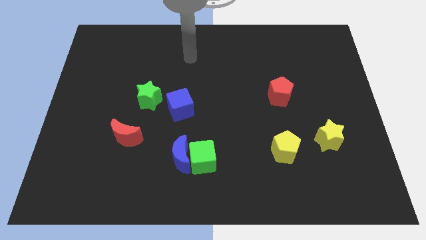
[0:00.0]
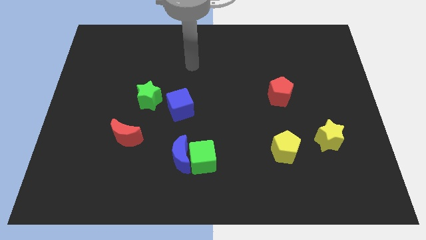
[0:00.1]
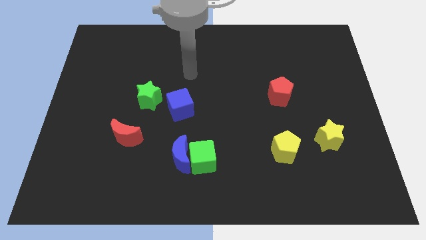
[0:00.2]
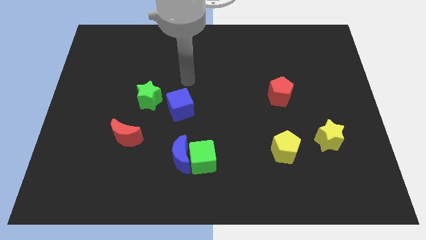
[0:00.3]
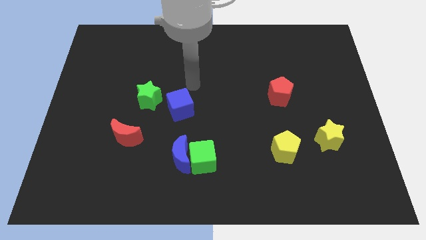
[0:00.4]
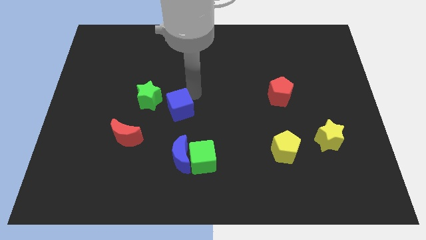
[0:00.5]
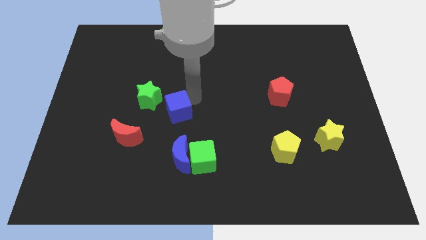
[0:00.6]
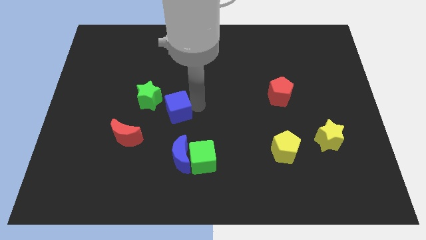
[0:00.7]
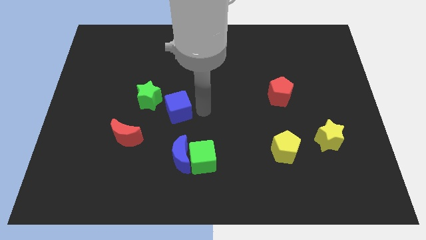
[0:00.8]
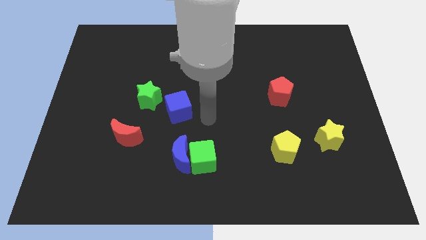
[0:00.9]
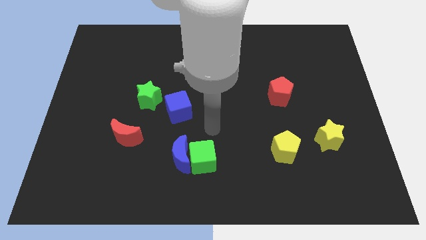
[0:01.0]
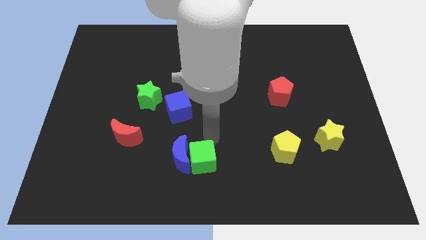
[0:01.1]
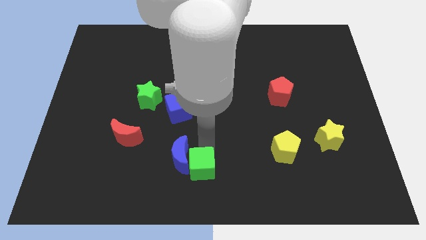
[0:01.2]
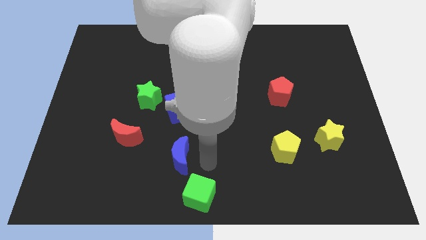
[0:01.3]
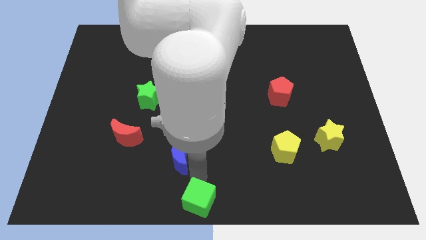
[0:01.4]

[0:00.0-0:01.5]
separate the blue moon from the green cube

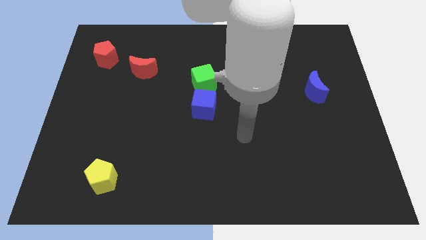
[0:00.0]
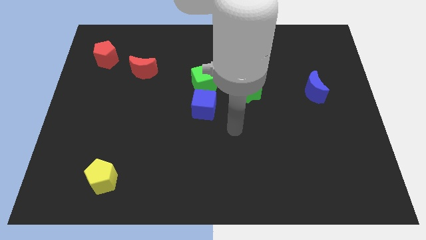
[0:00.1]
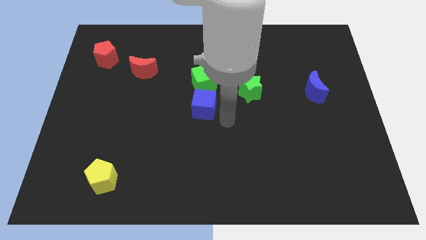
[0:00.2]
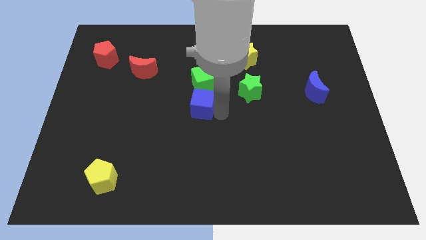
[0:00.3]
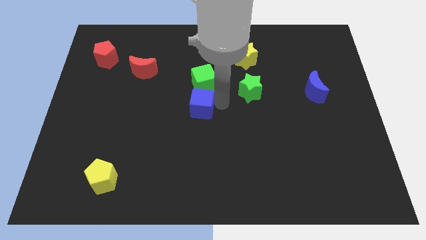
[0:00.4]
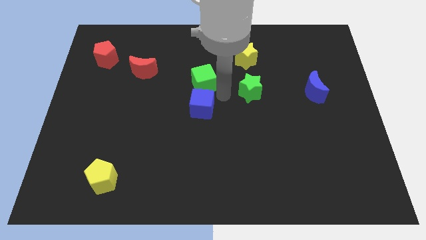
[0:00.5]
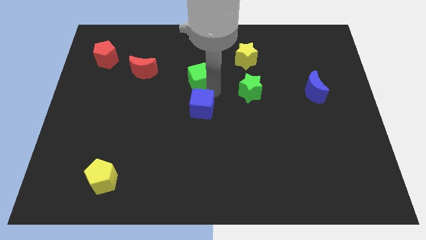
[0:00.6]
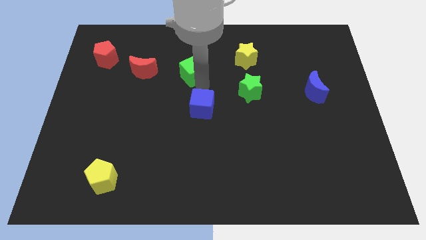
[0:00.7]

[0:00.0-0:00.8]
pull the blue cube apart from the green cube

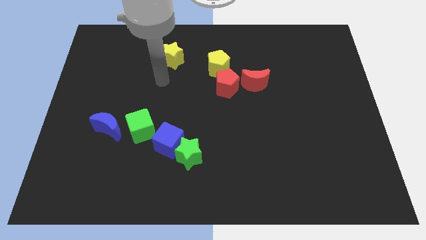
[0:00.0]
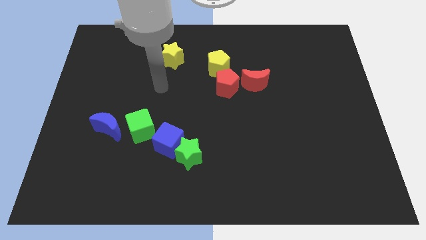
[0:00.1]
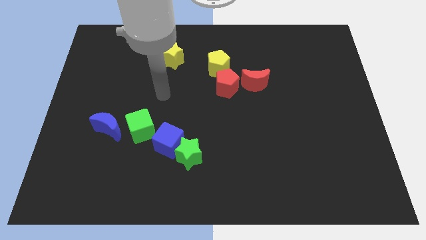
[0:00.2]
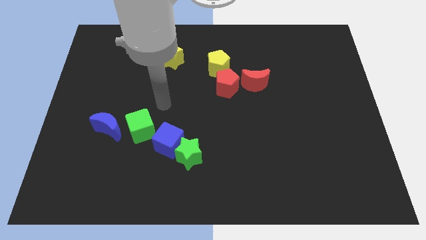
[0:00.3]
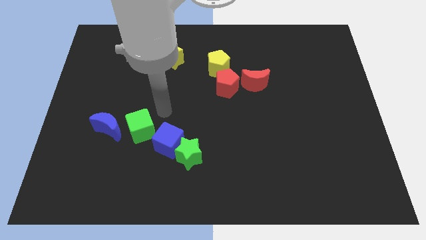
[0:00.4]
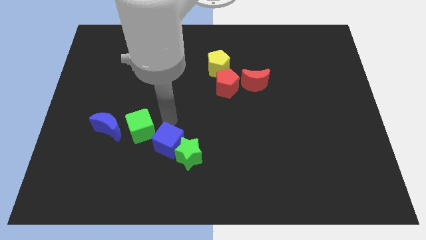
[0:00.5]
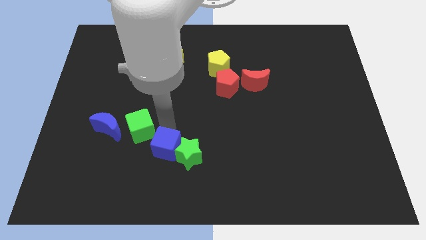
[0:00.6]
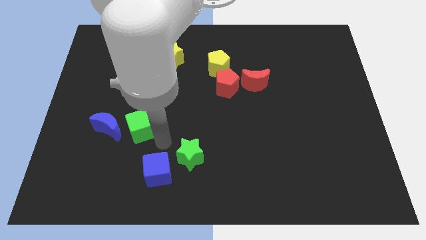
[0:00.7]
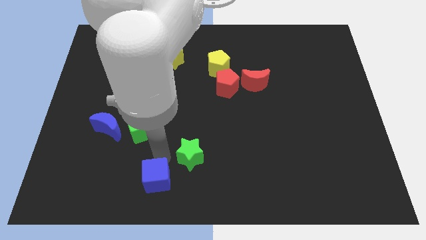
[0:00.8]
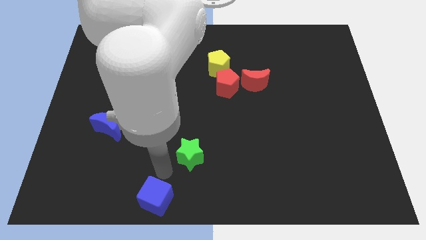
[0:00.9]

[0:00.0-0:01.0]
separate the green star from the blue cube

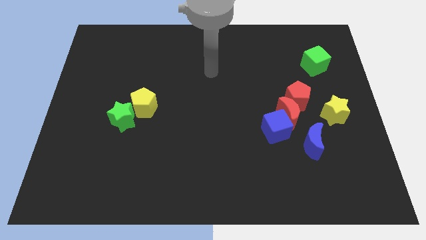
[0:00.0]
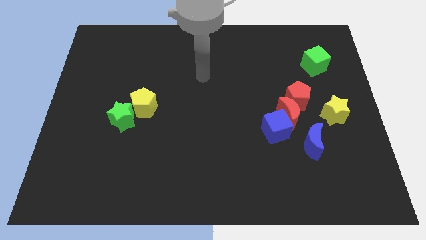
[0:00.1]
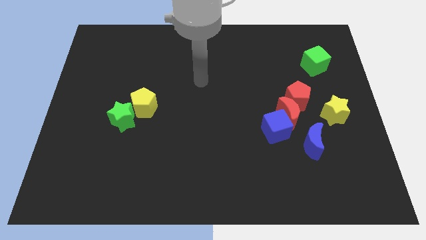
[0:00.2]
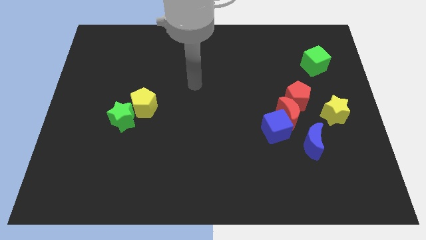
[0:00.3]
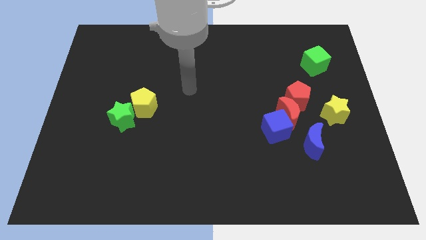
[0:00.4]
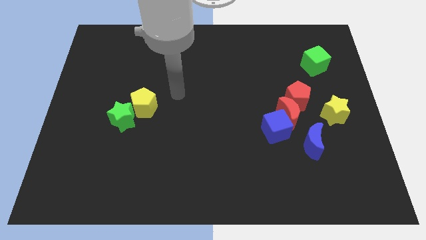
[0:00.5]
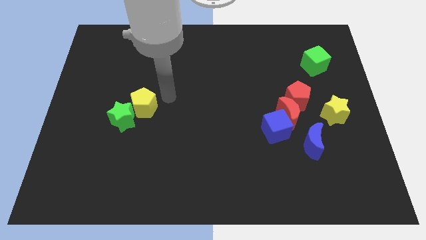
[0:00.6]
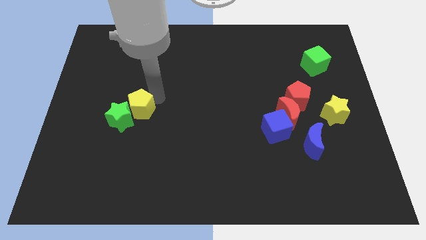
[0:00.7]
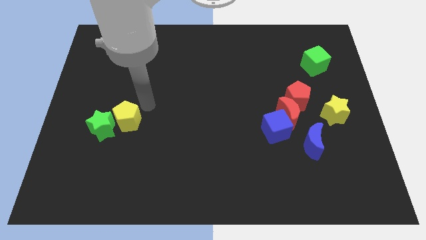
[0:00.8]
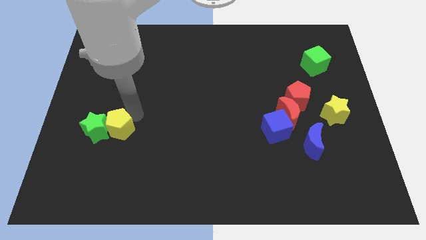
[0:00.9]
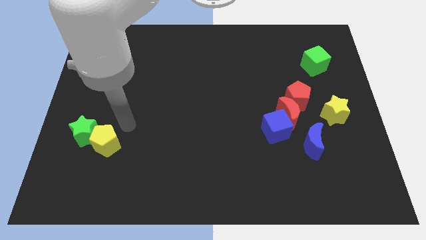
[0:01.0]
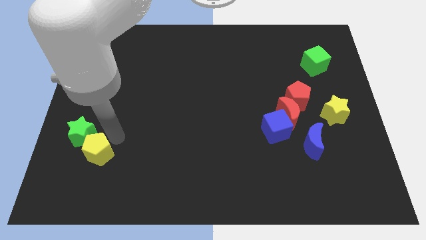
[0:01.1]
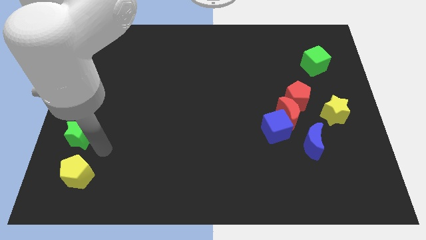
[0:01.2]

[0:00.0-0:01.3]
separate the green star from the yellow pentagon

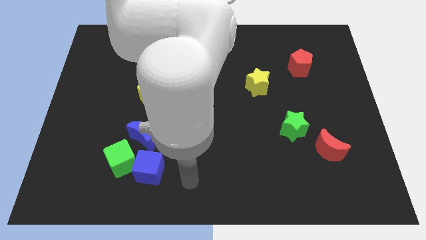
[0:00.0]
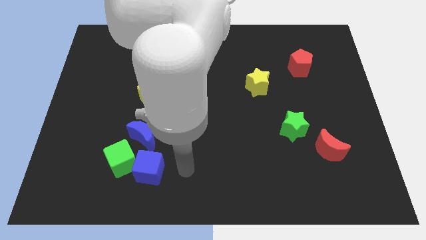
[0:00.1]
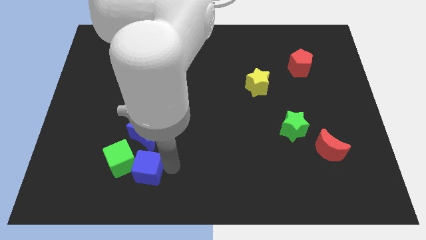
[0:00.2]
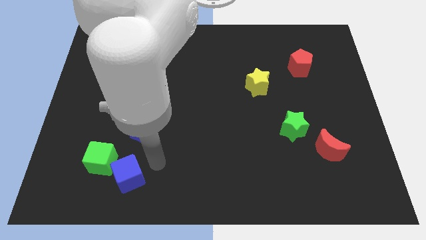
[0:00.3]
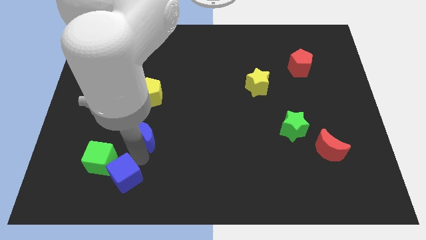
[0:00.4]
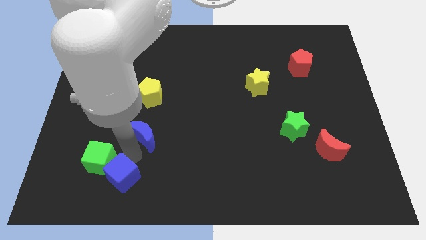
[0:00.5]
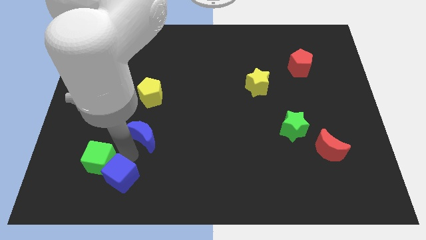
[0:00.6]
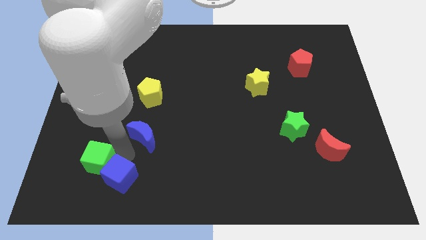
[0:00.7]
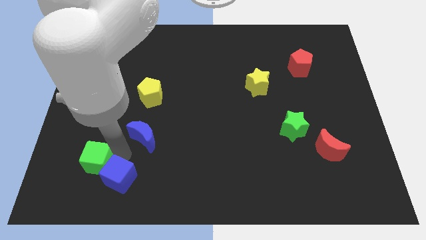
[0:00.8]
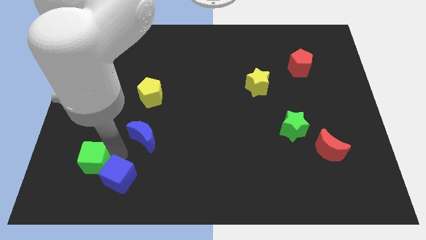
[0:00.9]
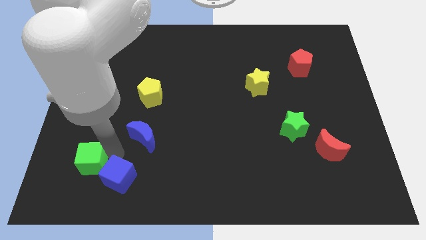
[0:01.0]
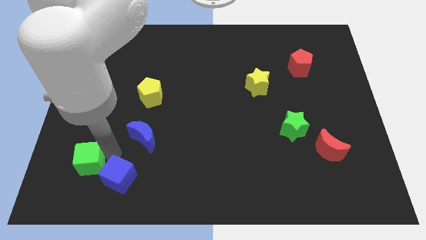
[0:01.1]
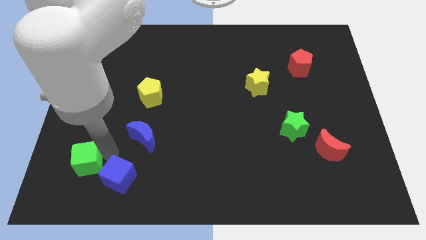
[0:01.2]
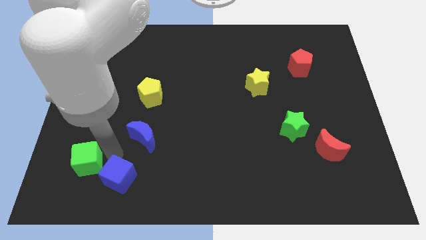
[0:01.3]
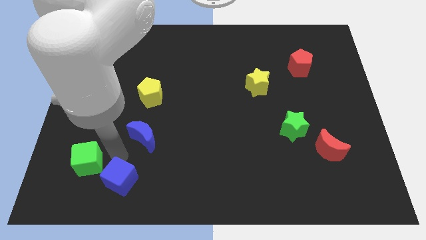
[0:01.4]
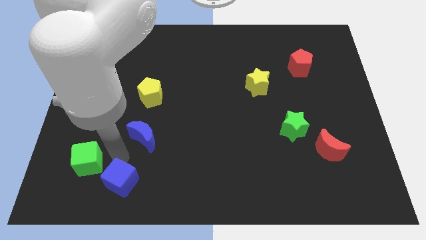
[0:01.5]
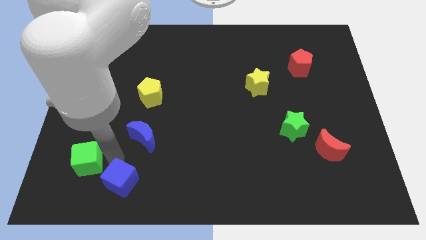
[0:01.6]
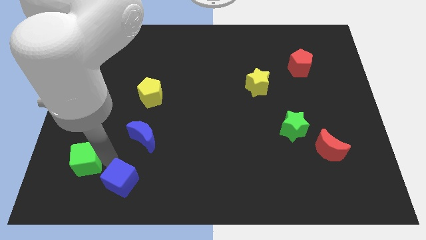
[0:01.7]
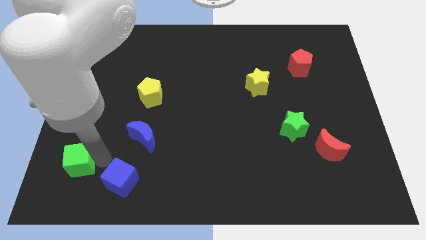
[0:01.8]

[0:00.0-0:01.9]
pull the green cube apart from the blue cube and blue moon

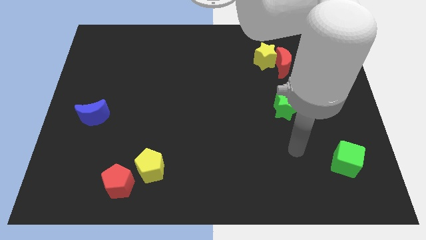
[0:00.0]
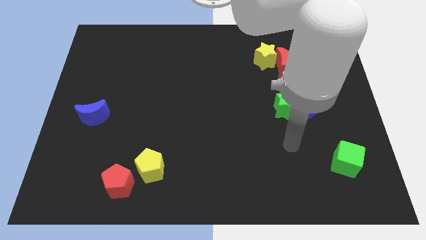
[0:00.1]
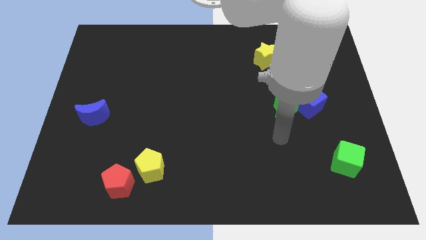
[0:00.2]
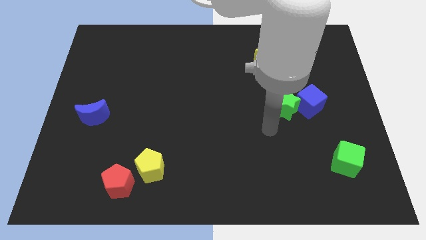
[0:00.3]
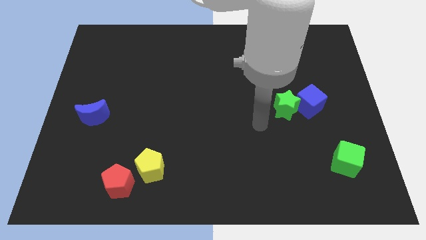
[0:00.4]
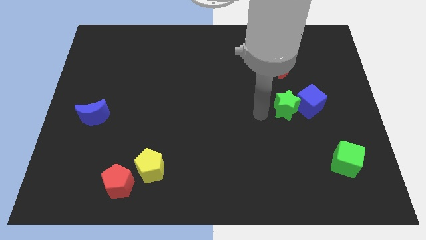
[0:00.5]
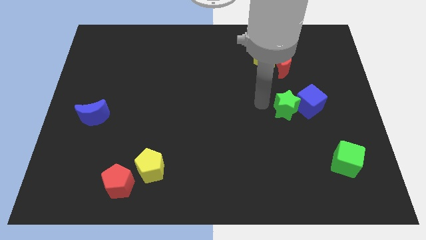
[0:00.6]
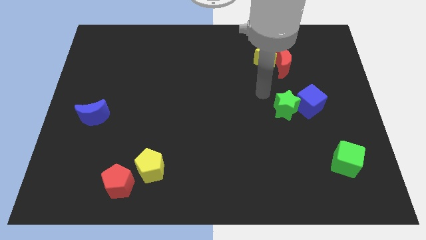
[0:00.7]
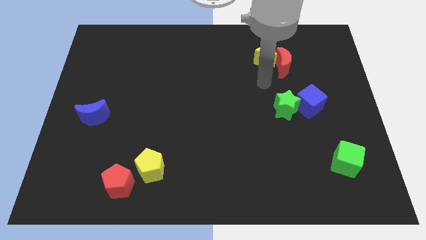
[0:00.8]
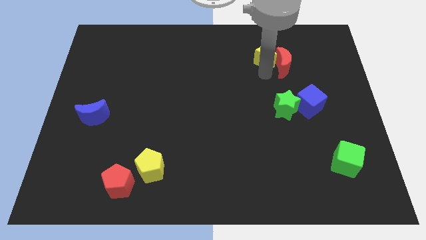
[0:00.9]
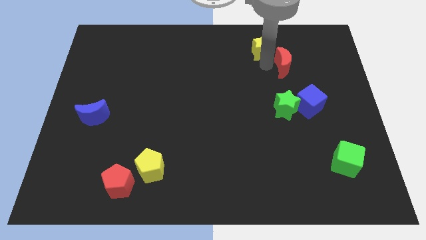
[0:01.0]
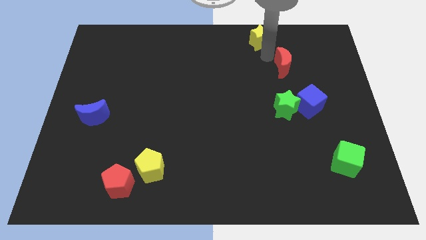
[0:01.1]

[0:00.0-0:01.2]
separate the red moon from the yellow star

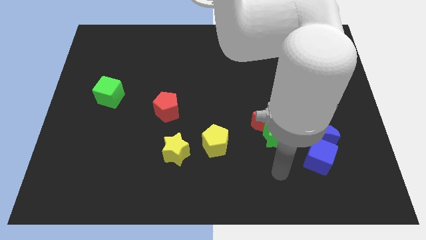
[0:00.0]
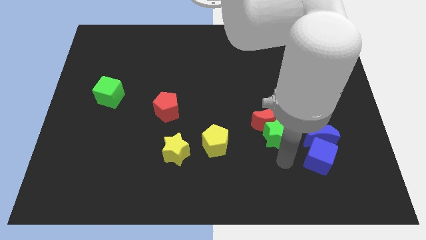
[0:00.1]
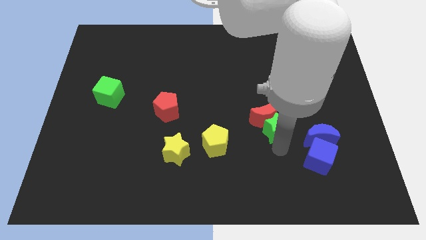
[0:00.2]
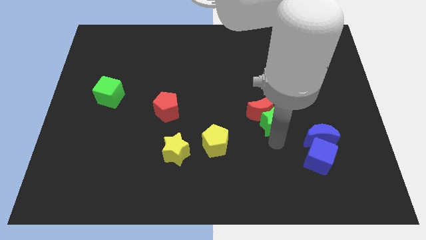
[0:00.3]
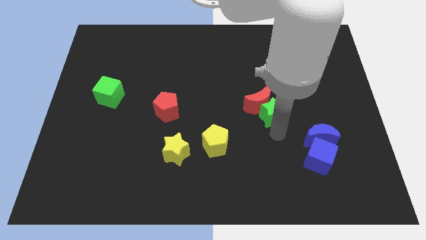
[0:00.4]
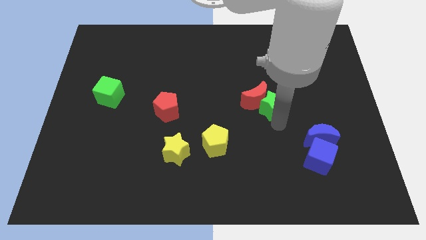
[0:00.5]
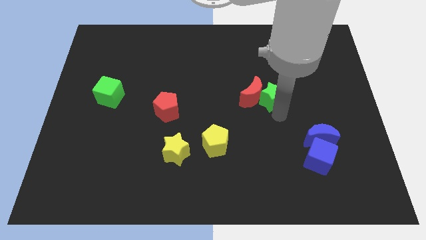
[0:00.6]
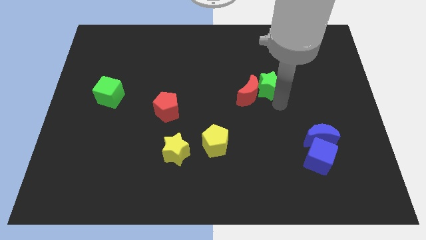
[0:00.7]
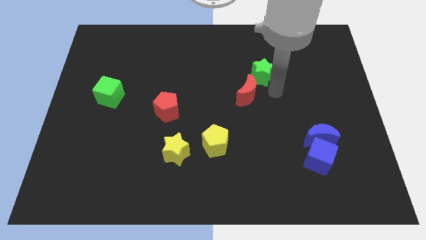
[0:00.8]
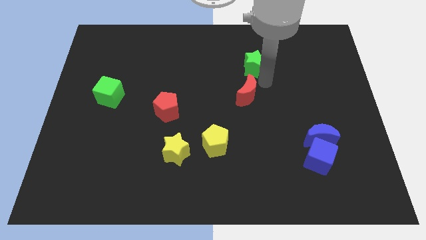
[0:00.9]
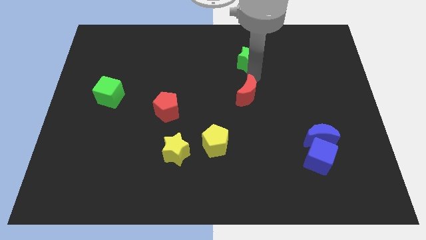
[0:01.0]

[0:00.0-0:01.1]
move the red moon away from the green star

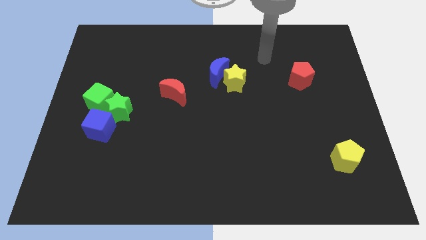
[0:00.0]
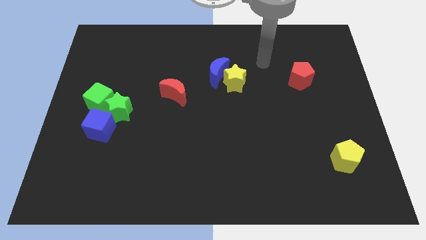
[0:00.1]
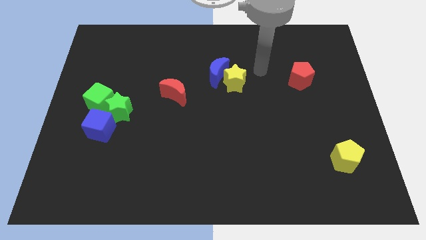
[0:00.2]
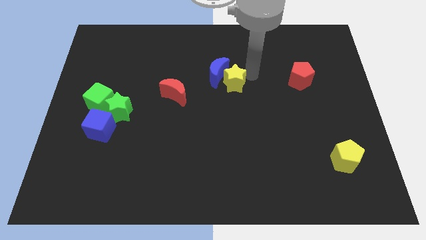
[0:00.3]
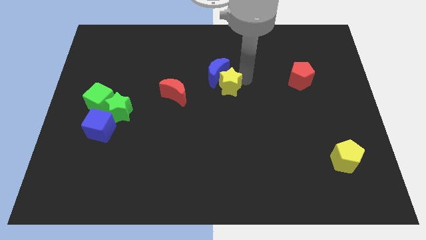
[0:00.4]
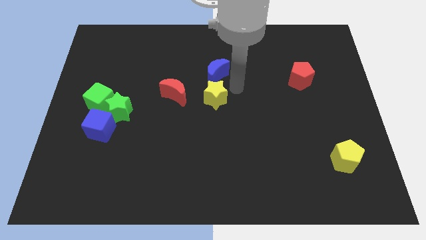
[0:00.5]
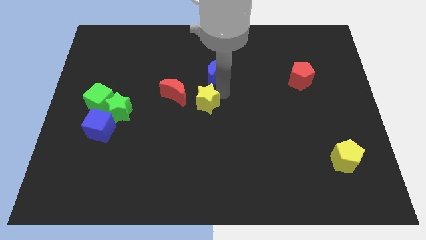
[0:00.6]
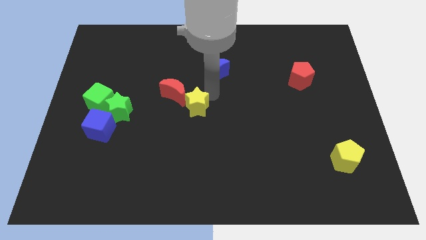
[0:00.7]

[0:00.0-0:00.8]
move the blue moon away from the yellow star
